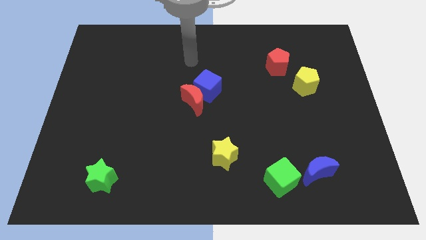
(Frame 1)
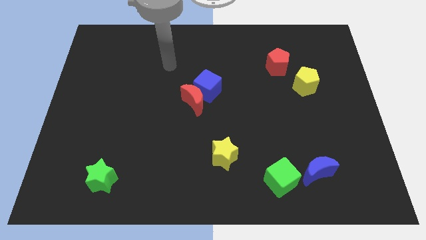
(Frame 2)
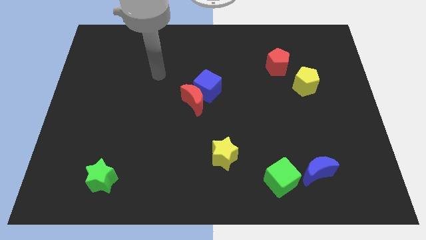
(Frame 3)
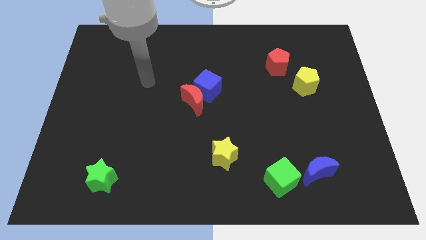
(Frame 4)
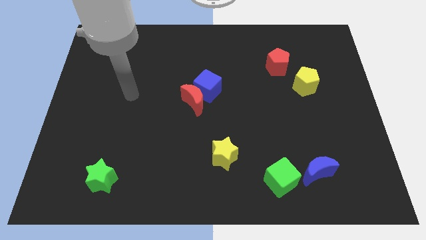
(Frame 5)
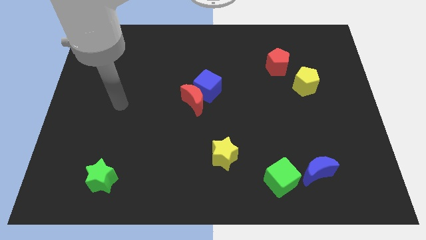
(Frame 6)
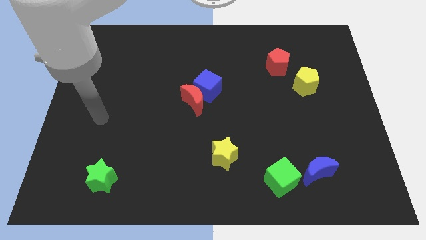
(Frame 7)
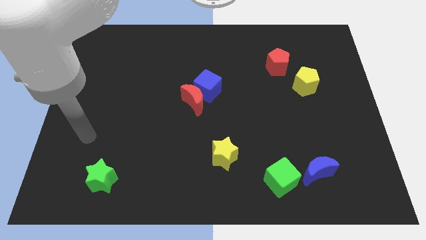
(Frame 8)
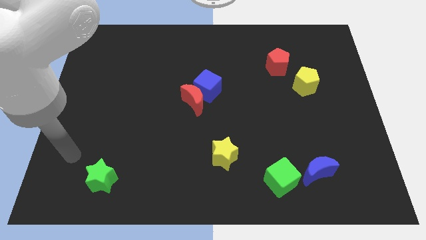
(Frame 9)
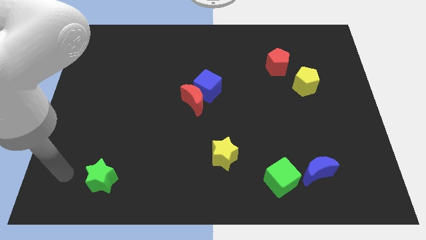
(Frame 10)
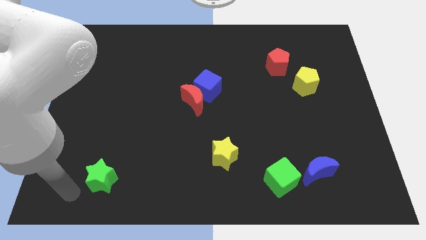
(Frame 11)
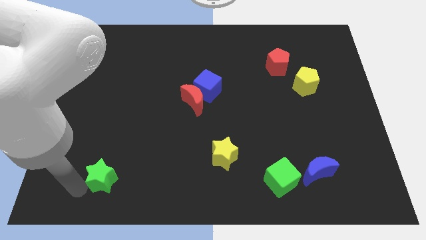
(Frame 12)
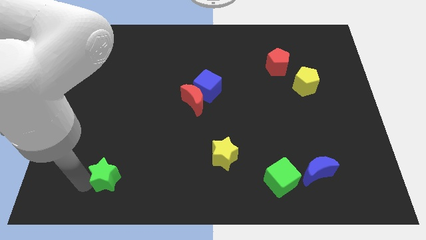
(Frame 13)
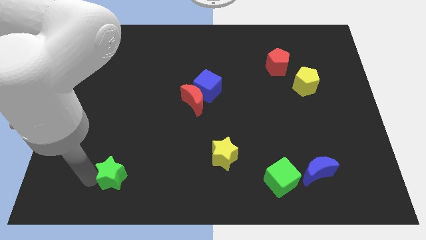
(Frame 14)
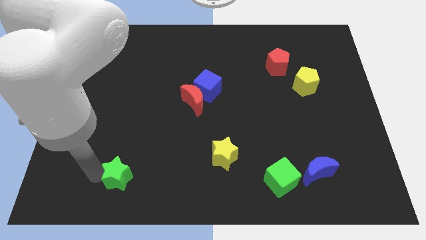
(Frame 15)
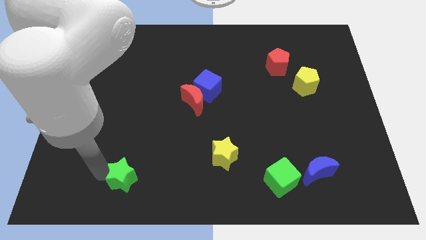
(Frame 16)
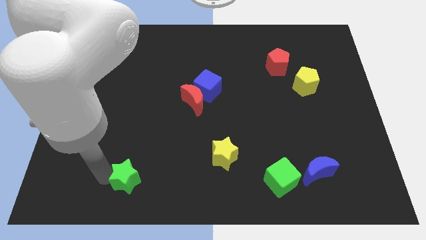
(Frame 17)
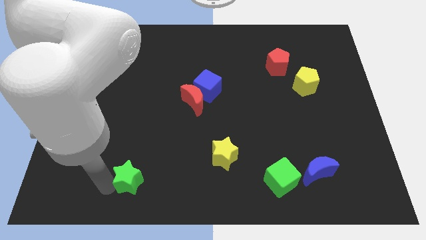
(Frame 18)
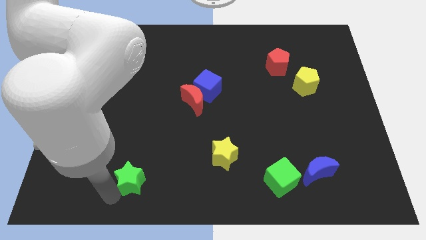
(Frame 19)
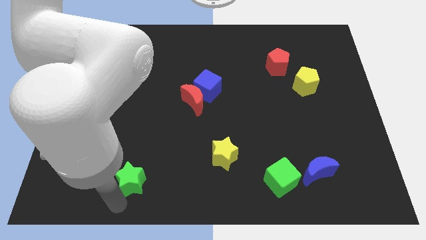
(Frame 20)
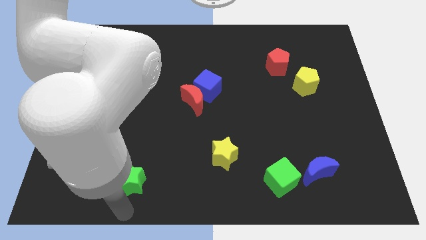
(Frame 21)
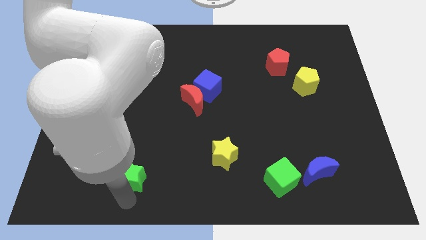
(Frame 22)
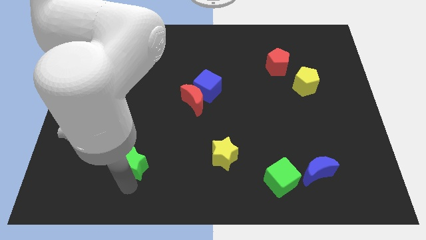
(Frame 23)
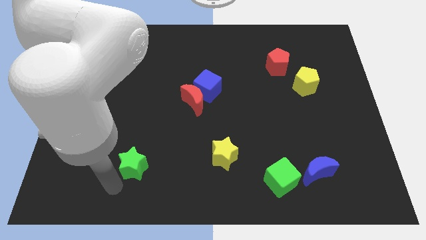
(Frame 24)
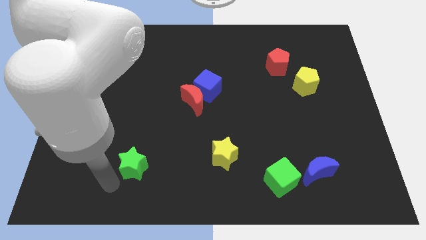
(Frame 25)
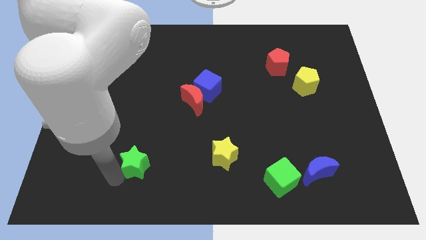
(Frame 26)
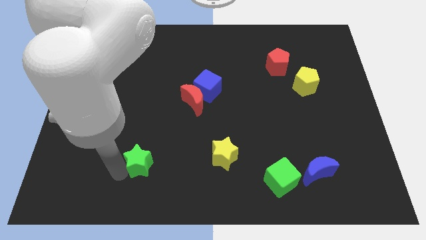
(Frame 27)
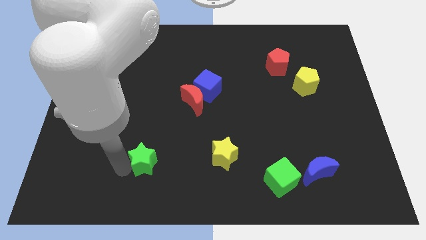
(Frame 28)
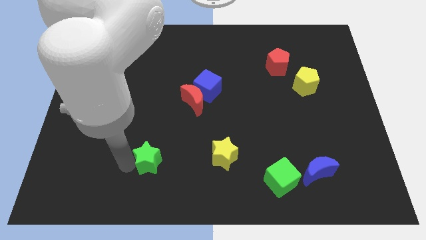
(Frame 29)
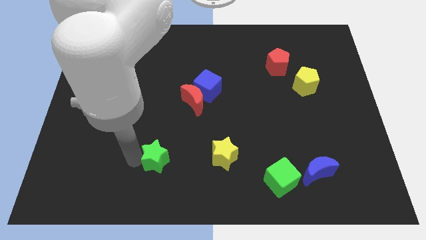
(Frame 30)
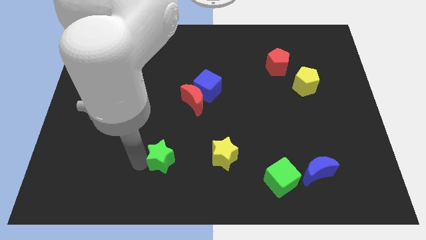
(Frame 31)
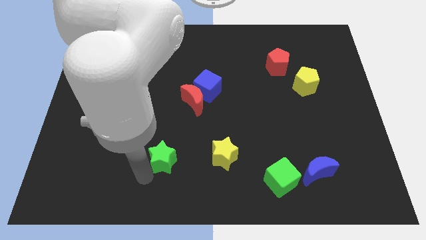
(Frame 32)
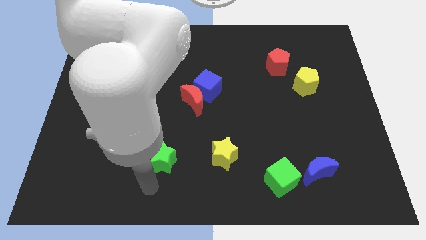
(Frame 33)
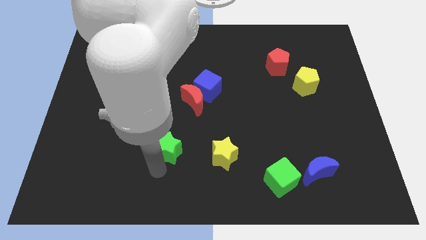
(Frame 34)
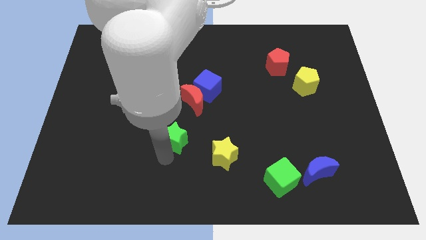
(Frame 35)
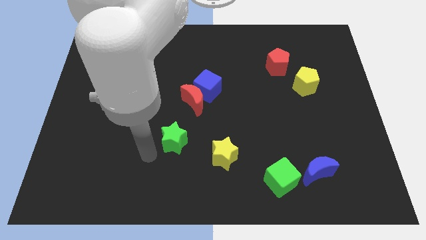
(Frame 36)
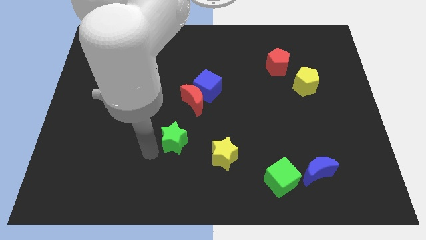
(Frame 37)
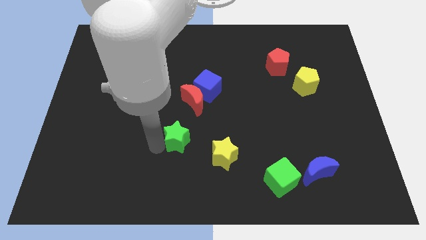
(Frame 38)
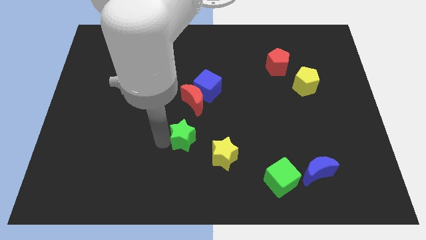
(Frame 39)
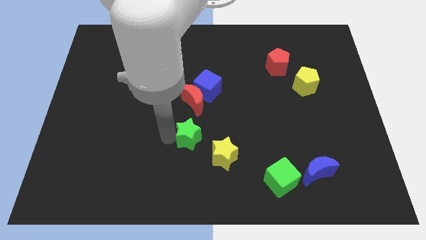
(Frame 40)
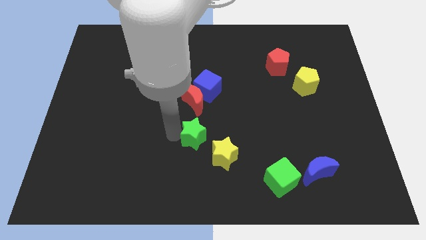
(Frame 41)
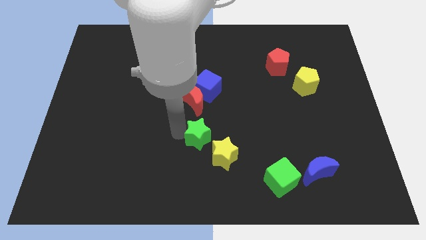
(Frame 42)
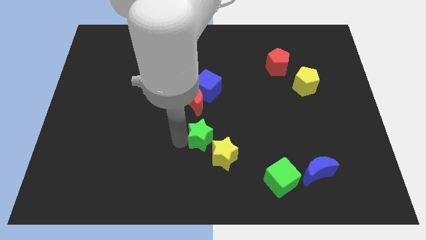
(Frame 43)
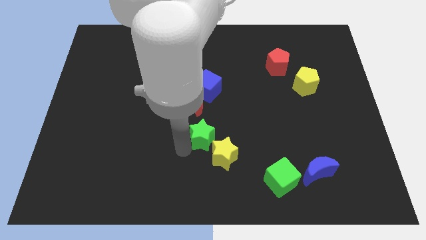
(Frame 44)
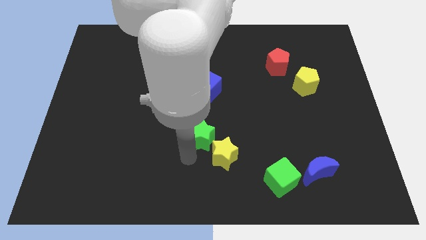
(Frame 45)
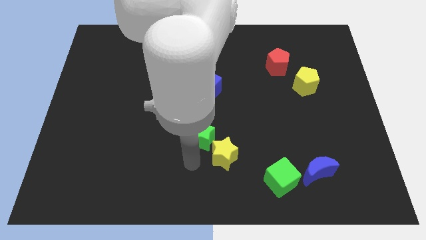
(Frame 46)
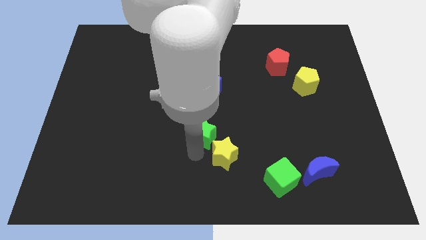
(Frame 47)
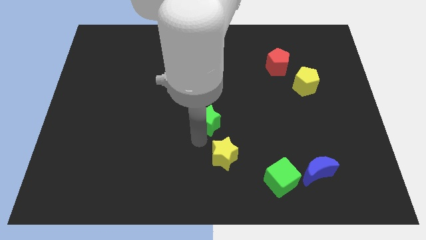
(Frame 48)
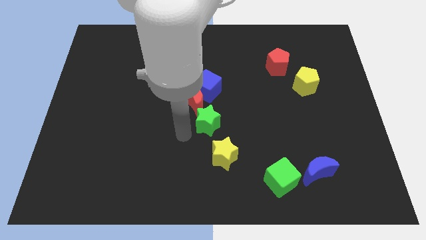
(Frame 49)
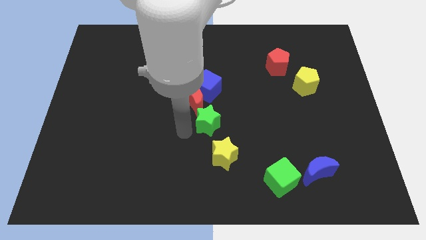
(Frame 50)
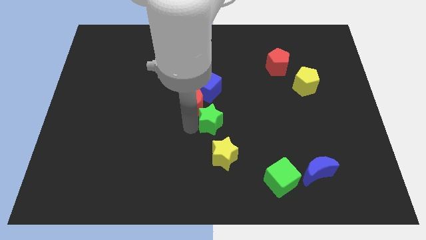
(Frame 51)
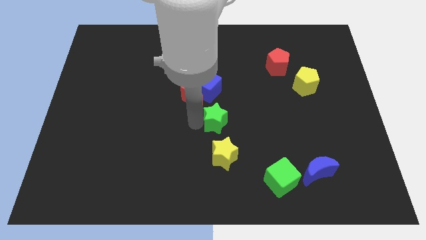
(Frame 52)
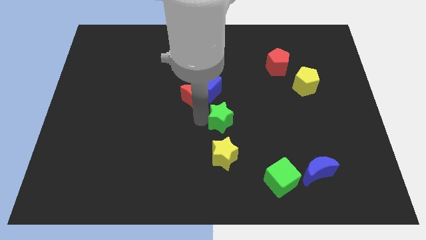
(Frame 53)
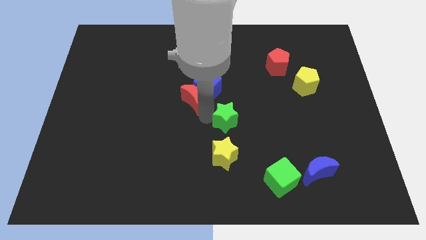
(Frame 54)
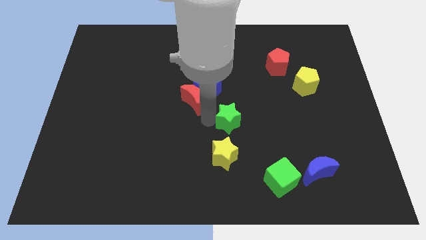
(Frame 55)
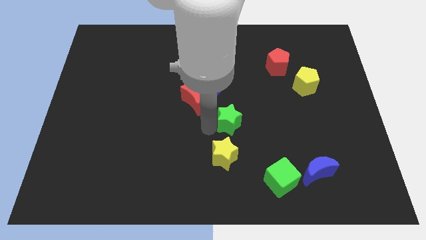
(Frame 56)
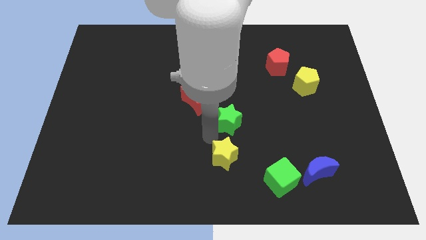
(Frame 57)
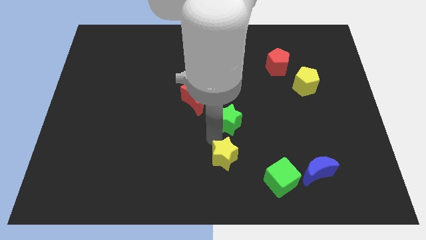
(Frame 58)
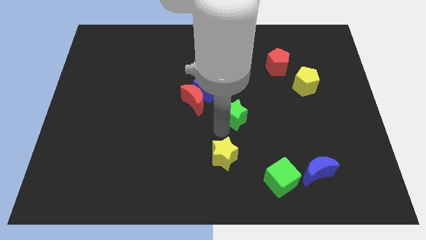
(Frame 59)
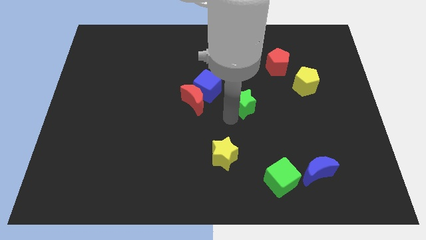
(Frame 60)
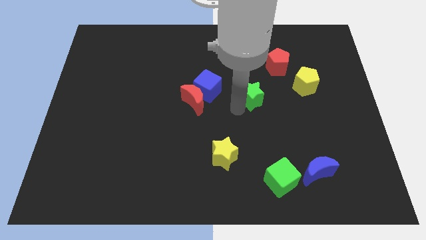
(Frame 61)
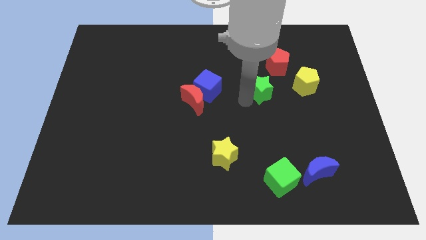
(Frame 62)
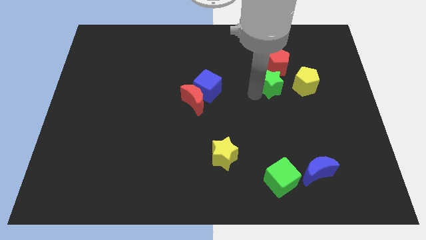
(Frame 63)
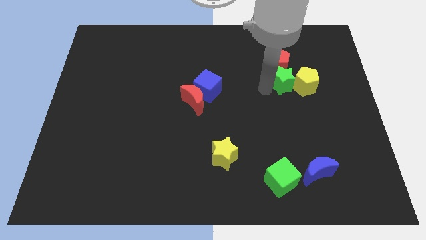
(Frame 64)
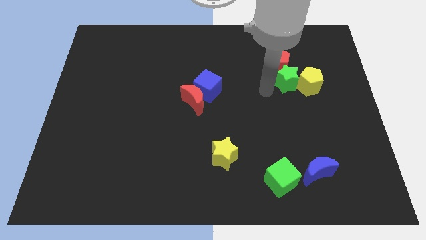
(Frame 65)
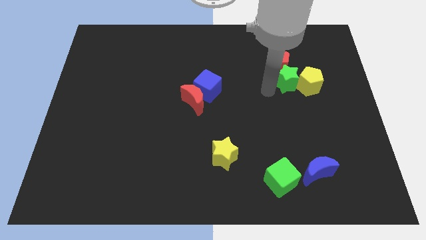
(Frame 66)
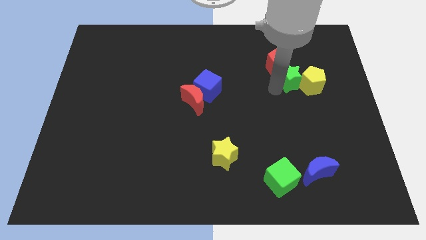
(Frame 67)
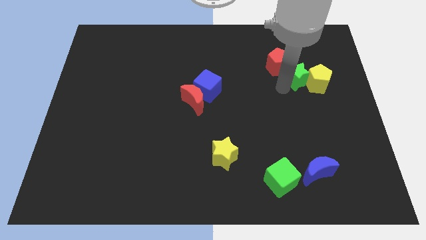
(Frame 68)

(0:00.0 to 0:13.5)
put the green star to the right side of the red pentagon
